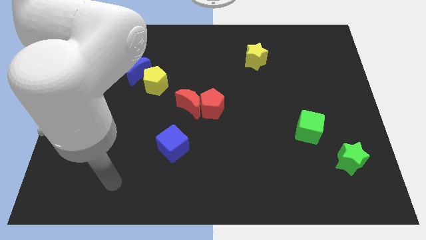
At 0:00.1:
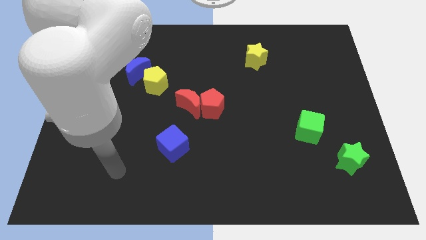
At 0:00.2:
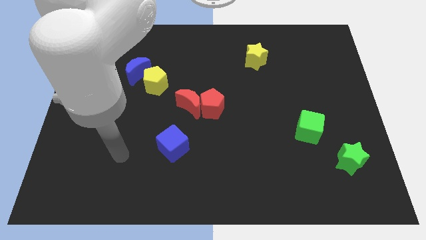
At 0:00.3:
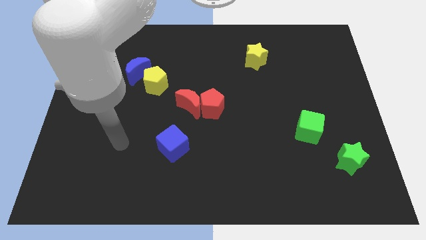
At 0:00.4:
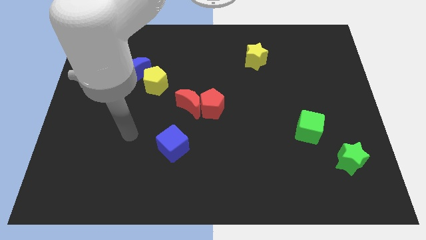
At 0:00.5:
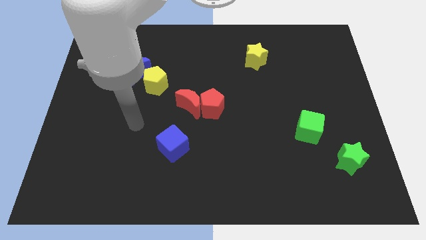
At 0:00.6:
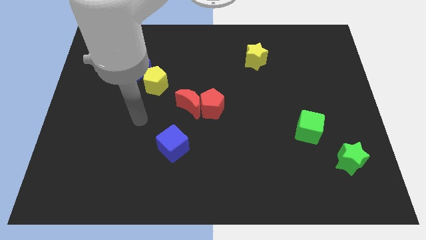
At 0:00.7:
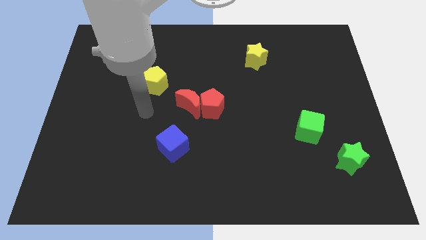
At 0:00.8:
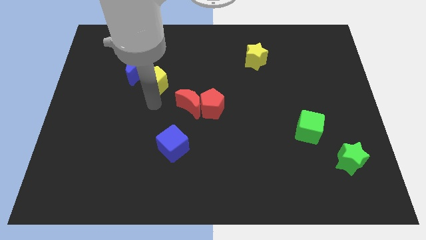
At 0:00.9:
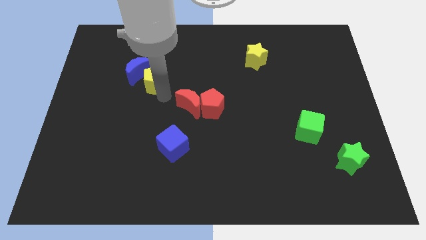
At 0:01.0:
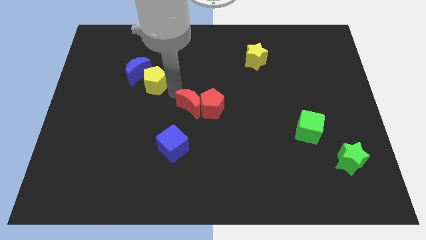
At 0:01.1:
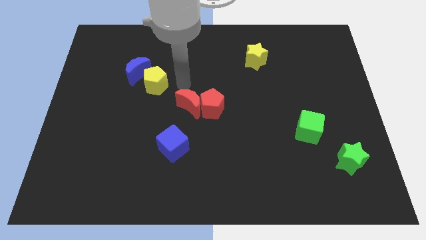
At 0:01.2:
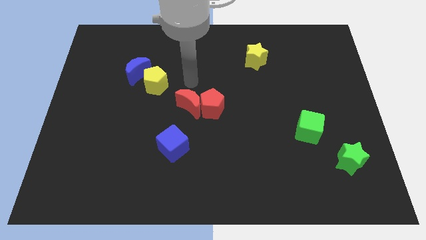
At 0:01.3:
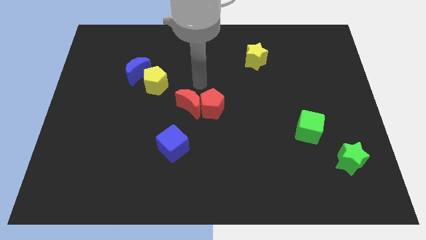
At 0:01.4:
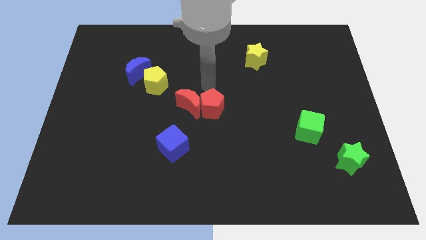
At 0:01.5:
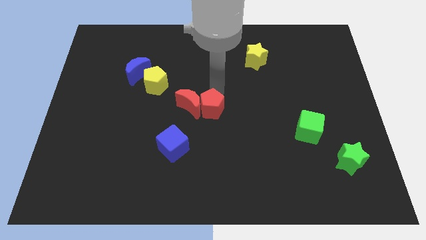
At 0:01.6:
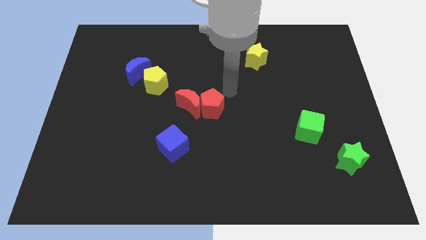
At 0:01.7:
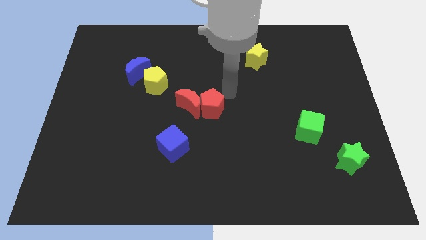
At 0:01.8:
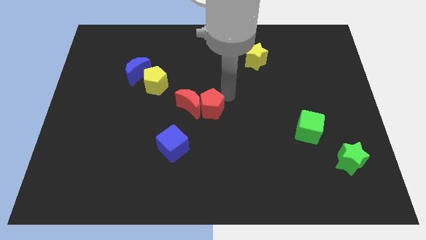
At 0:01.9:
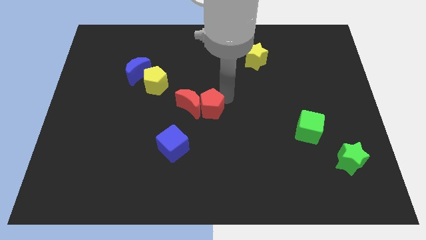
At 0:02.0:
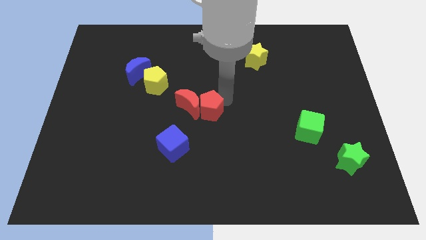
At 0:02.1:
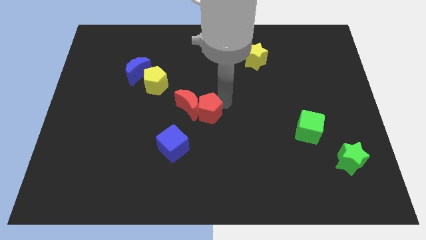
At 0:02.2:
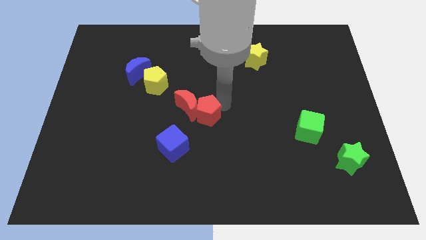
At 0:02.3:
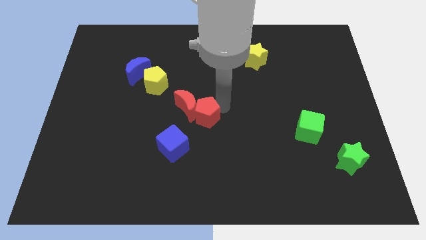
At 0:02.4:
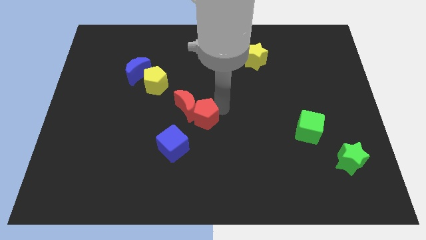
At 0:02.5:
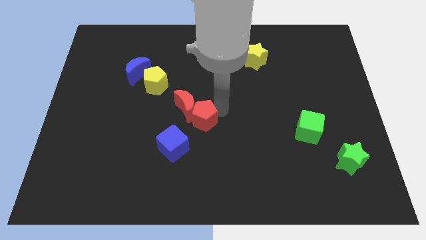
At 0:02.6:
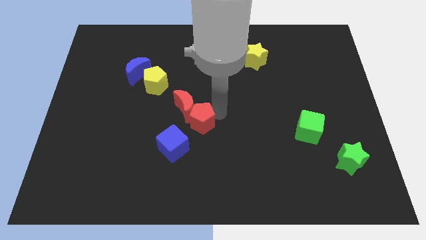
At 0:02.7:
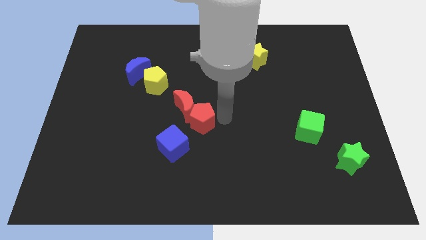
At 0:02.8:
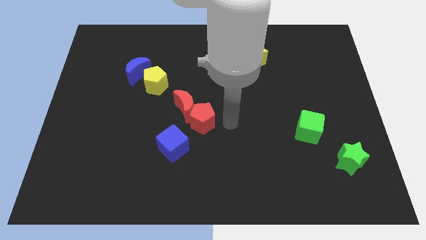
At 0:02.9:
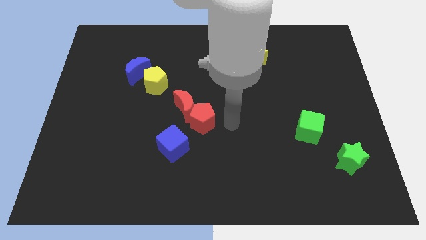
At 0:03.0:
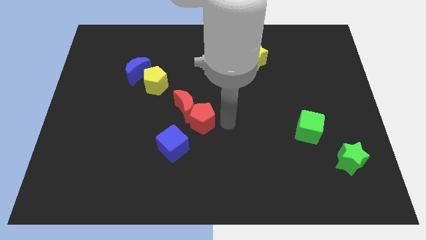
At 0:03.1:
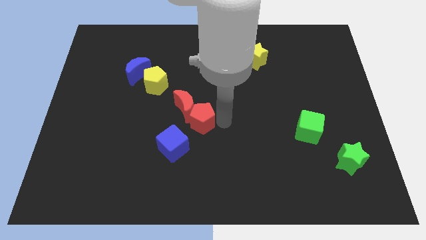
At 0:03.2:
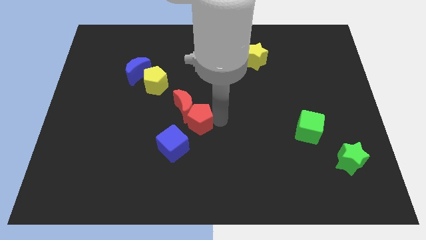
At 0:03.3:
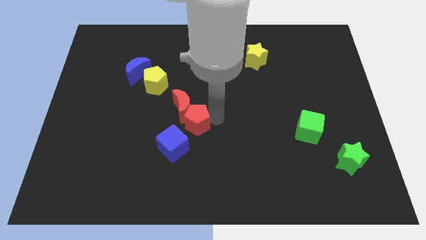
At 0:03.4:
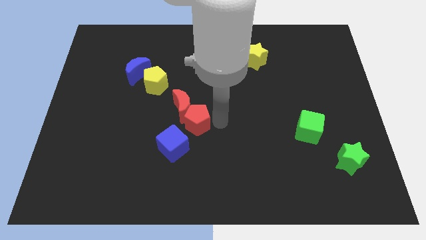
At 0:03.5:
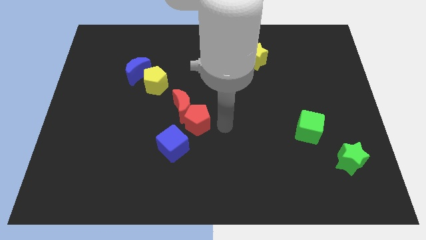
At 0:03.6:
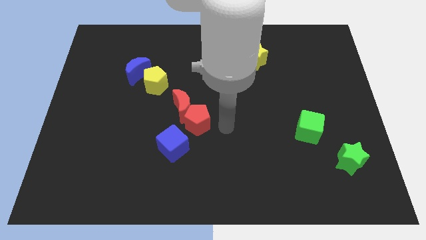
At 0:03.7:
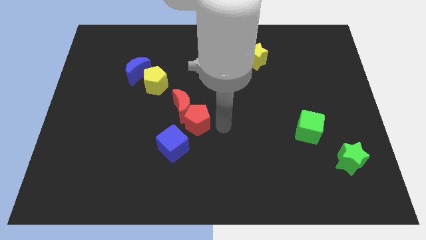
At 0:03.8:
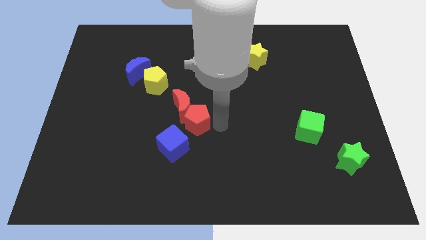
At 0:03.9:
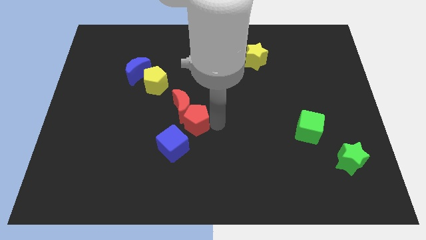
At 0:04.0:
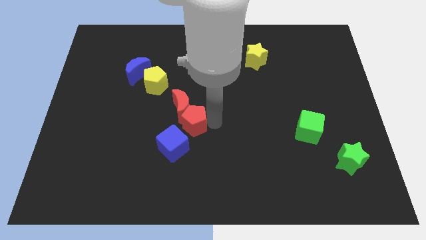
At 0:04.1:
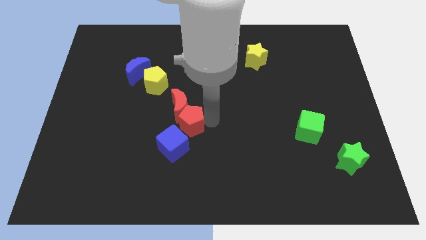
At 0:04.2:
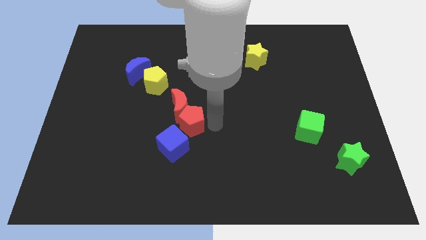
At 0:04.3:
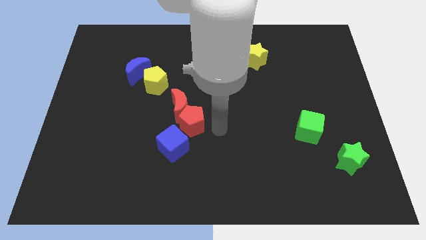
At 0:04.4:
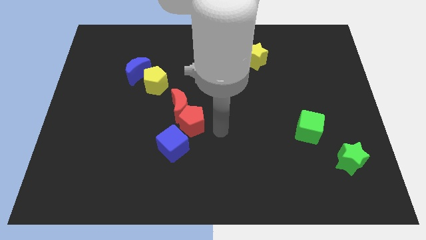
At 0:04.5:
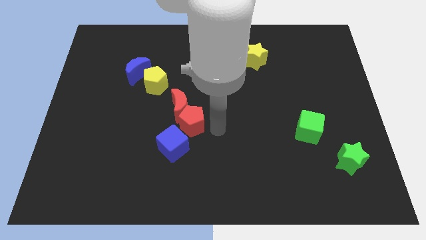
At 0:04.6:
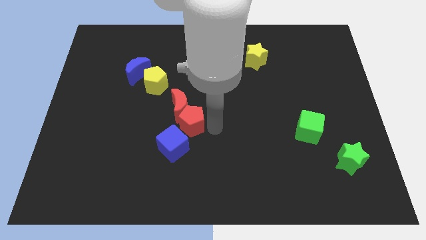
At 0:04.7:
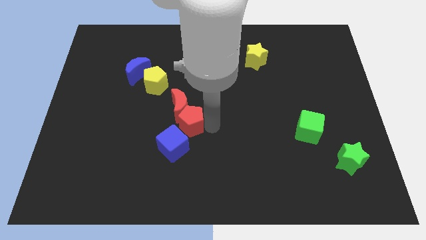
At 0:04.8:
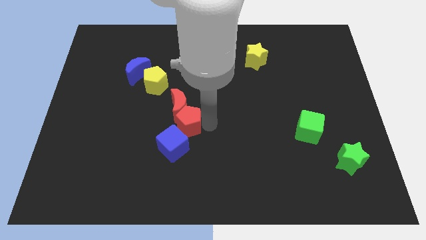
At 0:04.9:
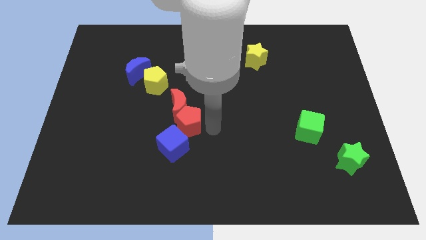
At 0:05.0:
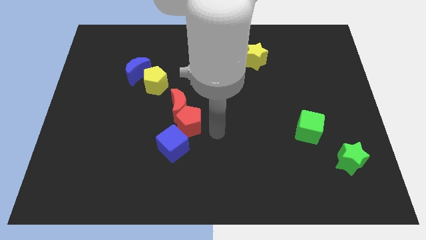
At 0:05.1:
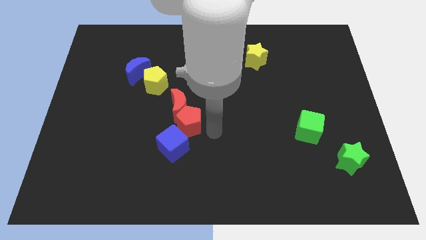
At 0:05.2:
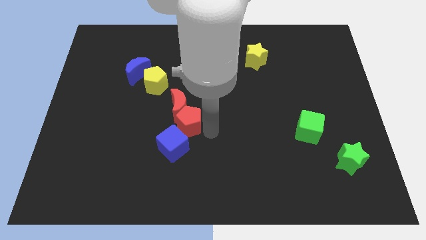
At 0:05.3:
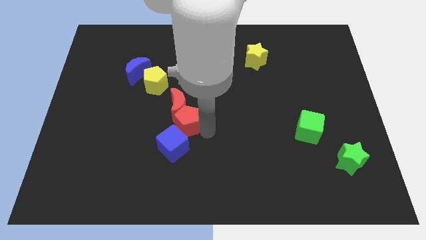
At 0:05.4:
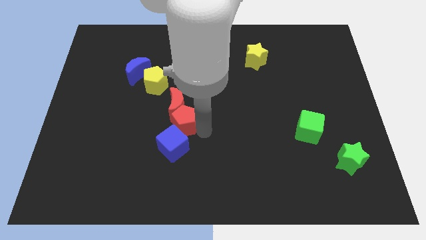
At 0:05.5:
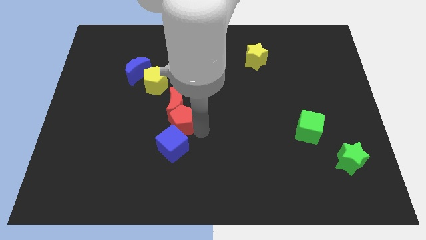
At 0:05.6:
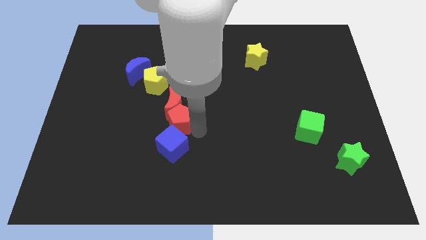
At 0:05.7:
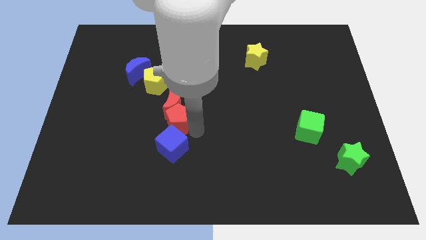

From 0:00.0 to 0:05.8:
slide the red pentagon left a little

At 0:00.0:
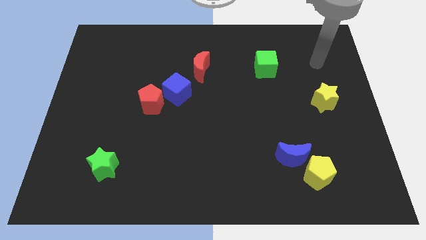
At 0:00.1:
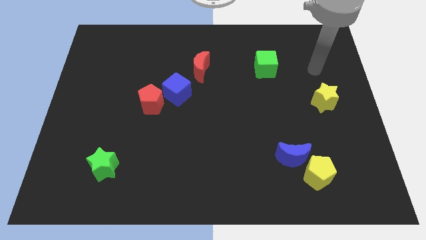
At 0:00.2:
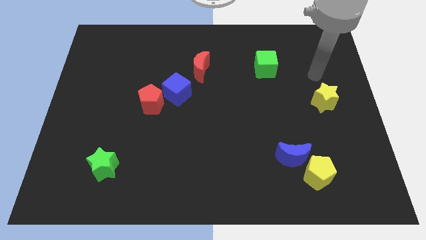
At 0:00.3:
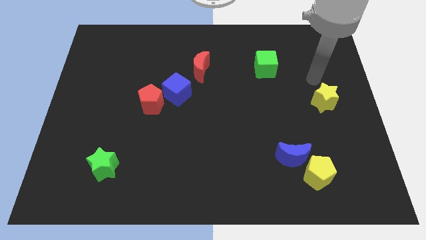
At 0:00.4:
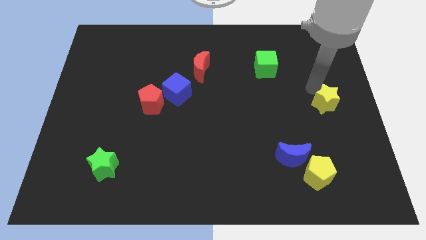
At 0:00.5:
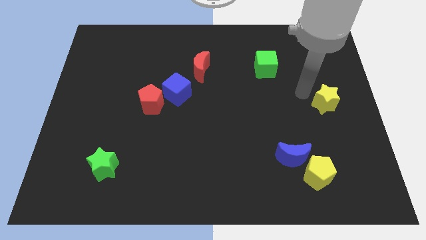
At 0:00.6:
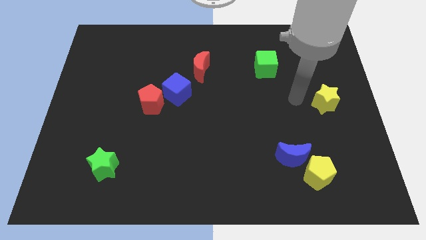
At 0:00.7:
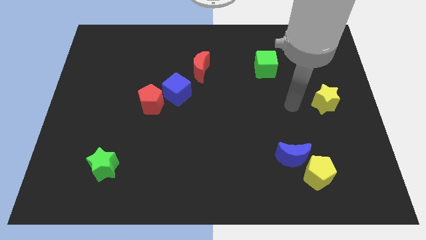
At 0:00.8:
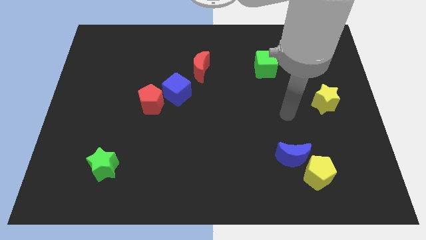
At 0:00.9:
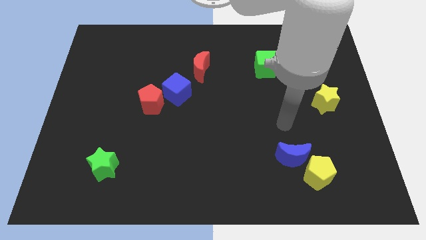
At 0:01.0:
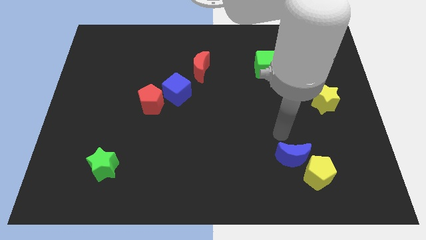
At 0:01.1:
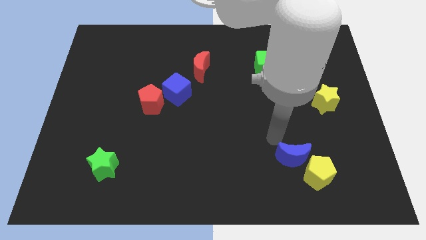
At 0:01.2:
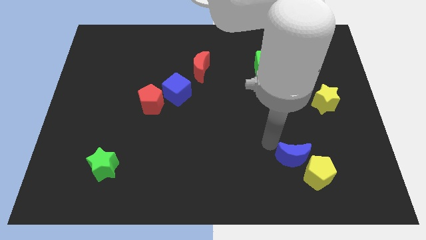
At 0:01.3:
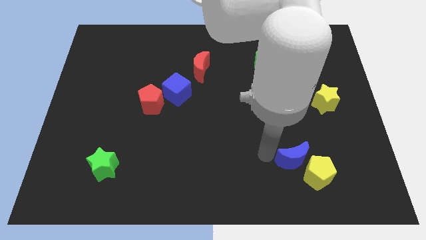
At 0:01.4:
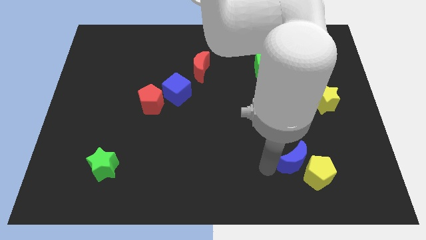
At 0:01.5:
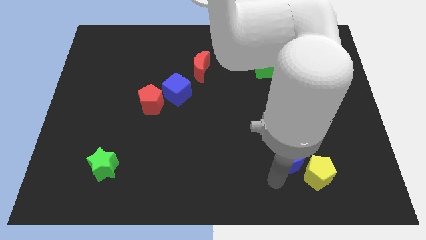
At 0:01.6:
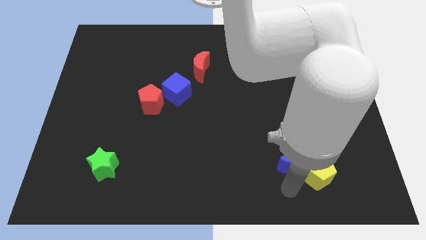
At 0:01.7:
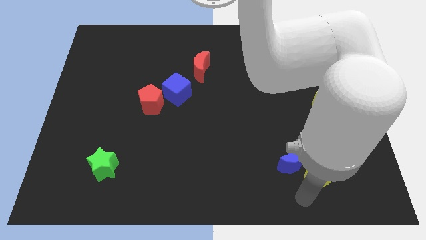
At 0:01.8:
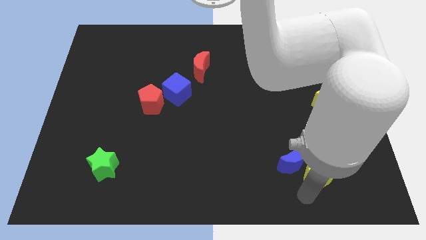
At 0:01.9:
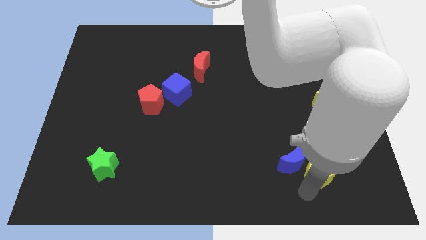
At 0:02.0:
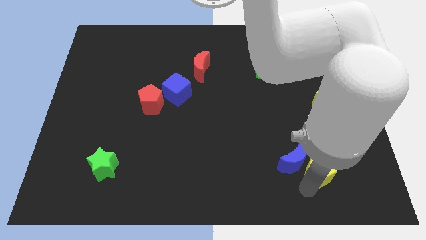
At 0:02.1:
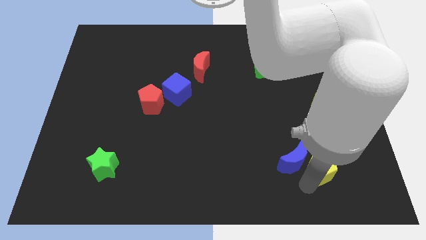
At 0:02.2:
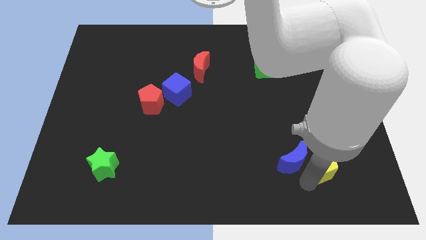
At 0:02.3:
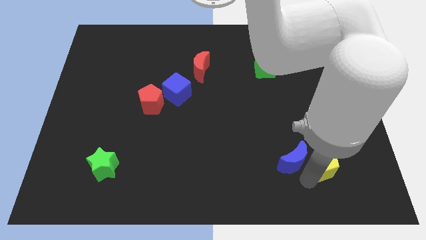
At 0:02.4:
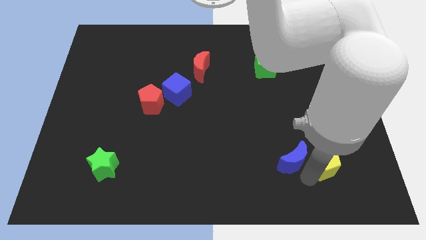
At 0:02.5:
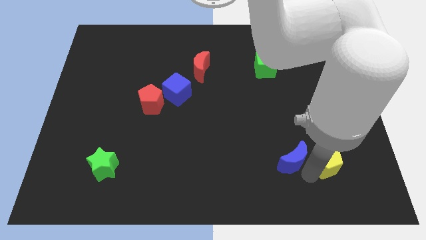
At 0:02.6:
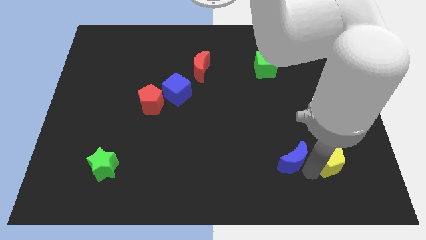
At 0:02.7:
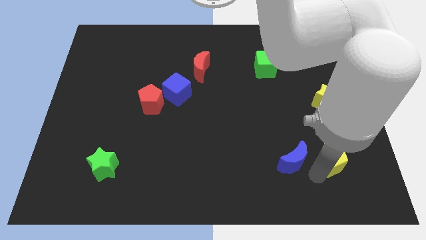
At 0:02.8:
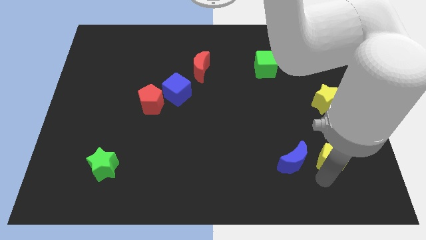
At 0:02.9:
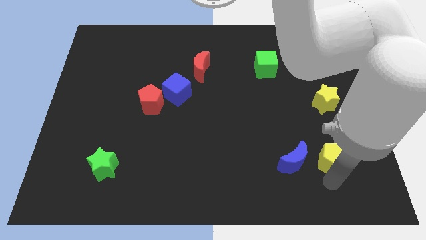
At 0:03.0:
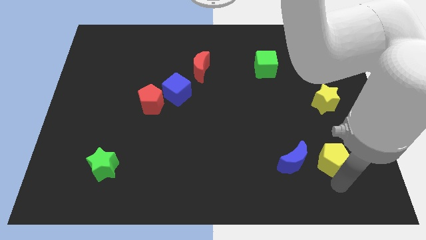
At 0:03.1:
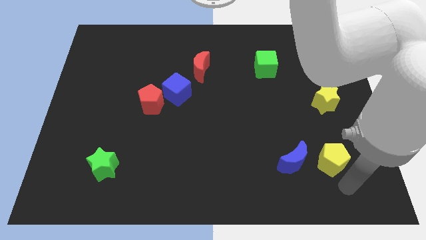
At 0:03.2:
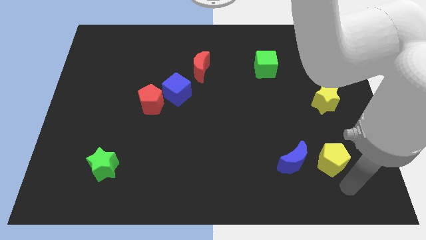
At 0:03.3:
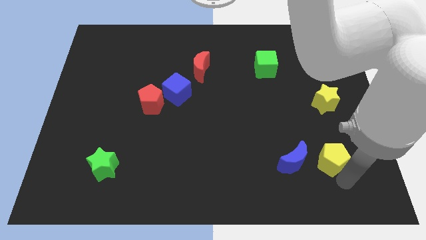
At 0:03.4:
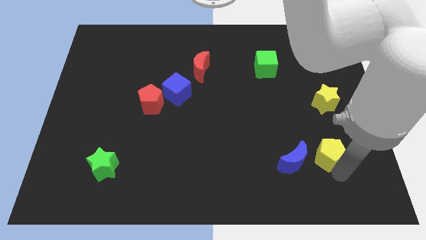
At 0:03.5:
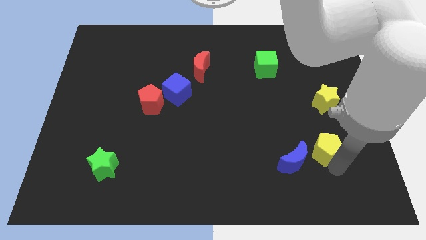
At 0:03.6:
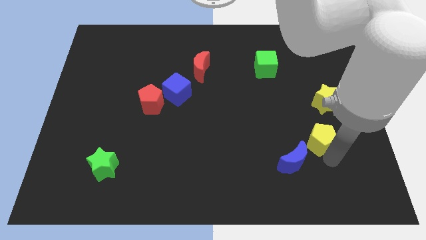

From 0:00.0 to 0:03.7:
push the yellow pentagon upwards somewhat
